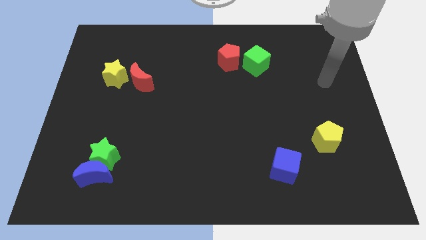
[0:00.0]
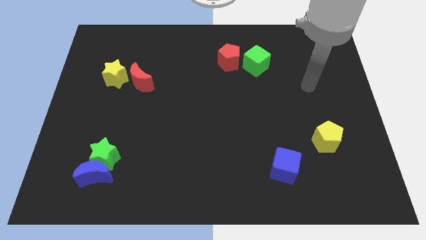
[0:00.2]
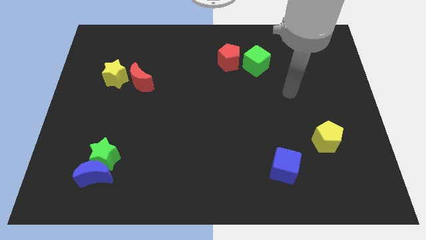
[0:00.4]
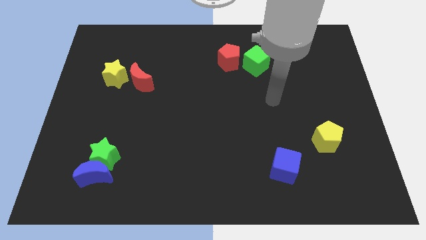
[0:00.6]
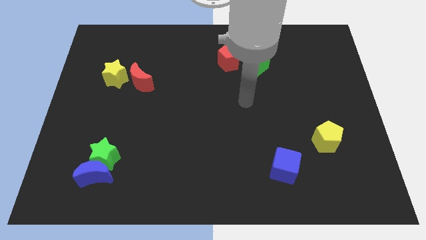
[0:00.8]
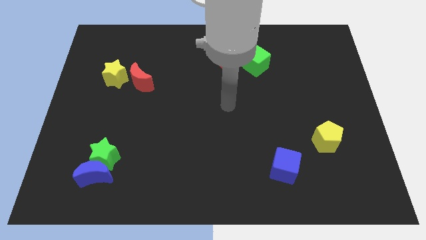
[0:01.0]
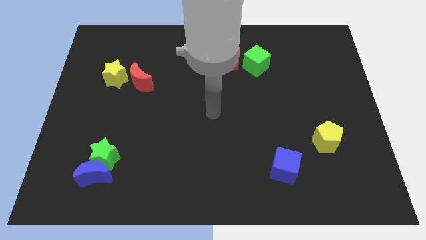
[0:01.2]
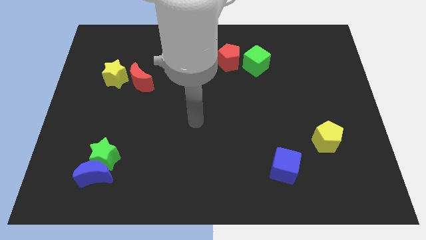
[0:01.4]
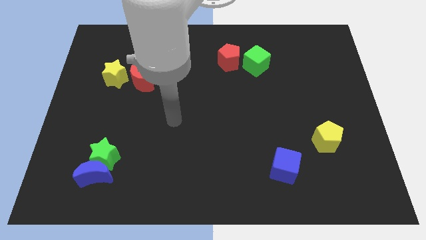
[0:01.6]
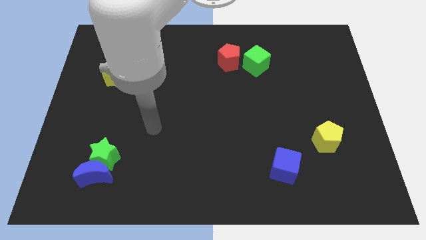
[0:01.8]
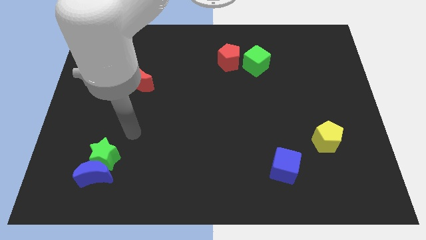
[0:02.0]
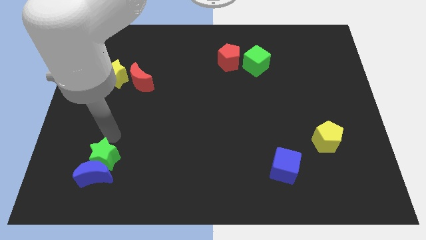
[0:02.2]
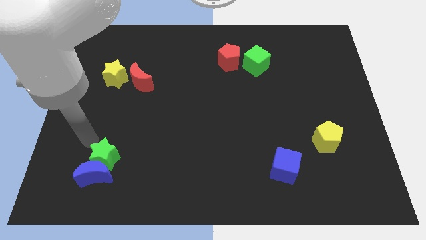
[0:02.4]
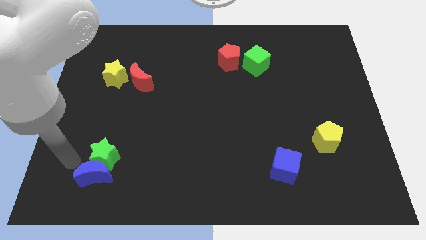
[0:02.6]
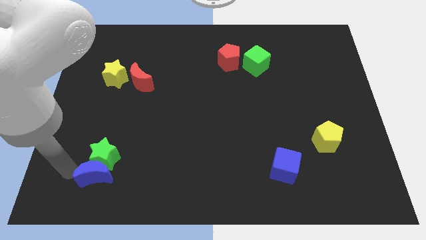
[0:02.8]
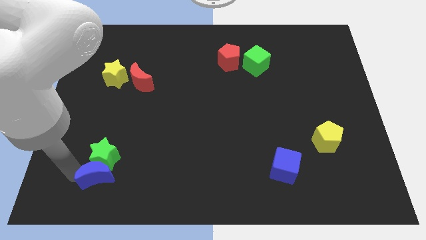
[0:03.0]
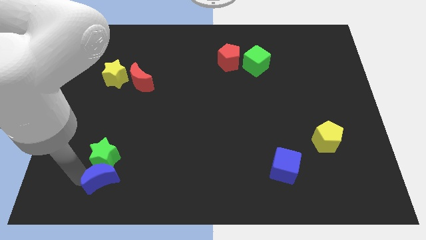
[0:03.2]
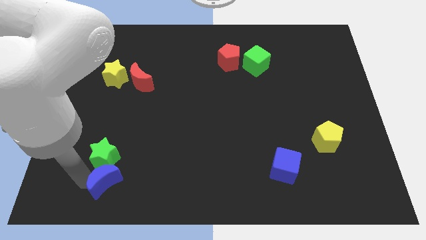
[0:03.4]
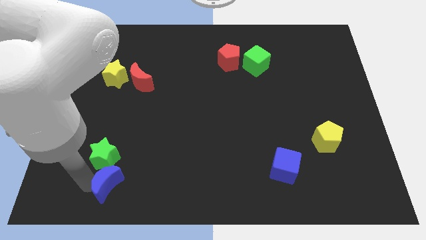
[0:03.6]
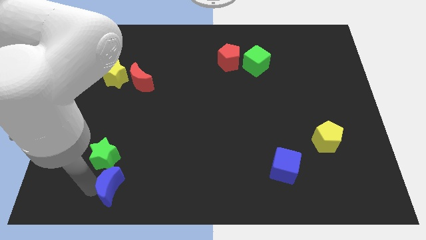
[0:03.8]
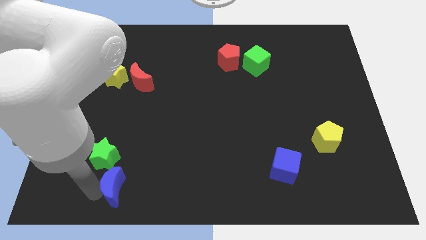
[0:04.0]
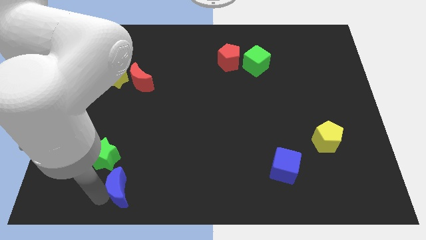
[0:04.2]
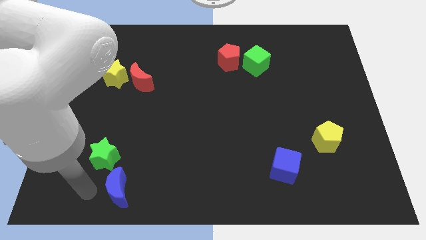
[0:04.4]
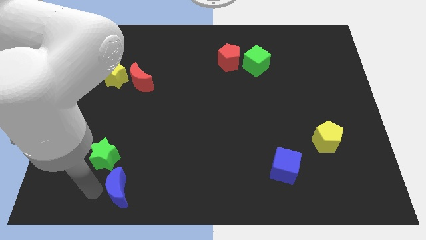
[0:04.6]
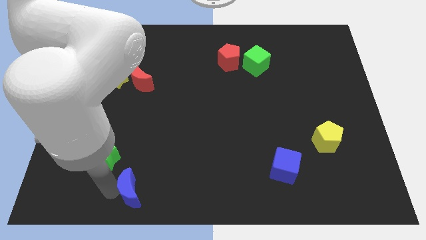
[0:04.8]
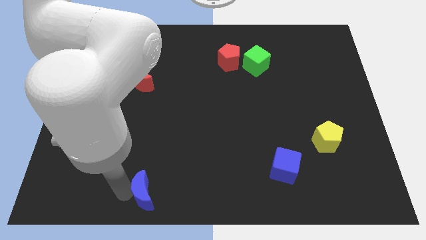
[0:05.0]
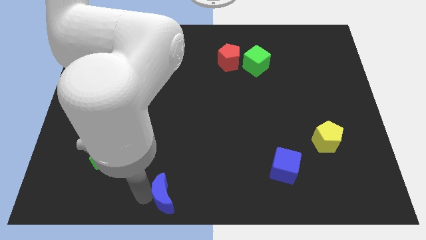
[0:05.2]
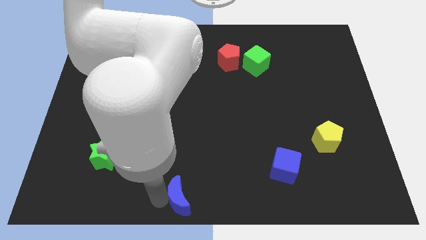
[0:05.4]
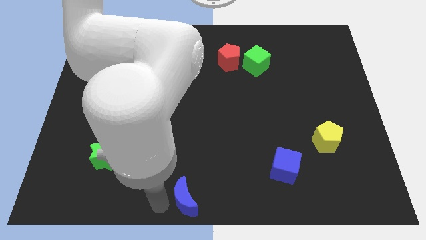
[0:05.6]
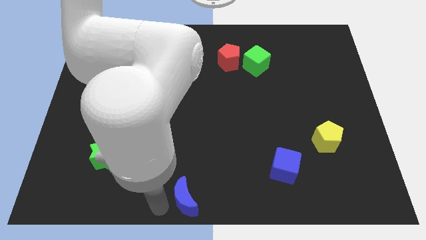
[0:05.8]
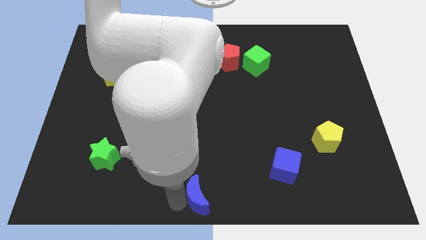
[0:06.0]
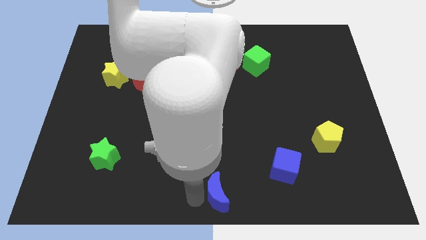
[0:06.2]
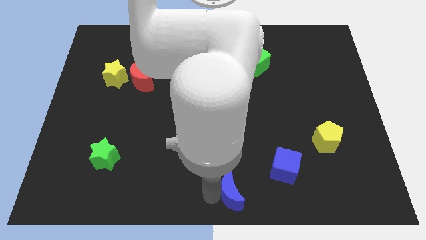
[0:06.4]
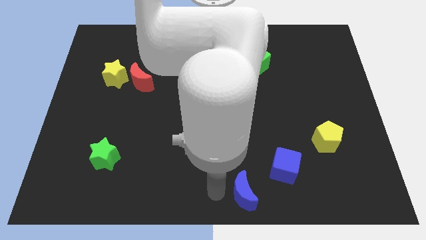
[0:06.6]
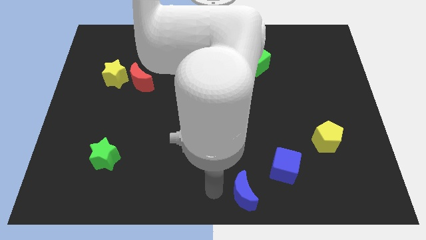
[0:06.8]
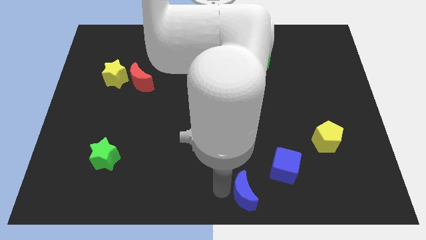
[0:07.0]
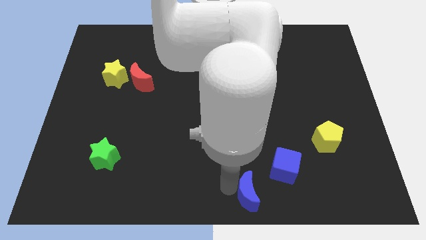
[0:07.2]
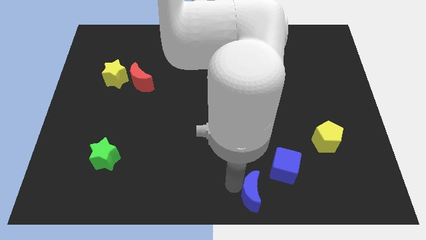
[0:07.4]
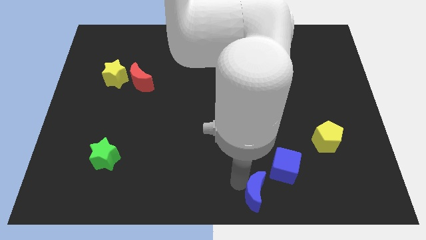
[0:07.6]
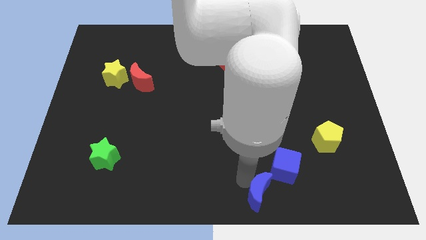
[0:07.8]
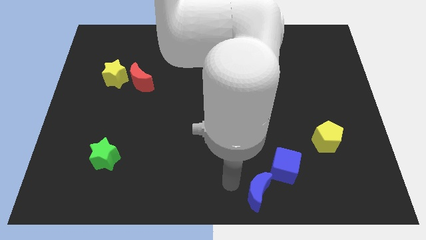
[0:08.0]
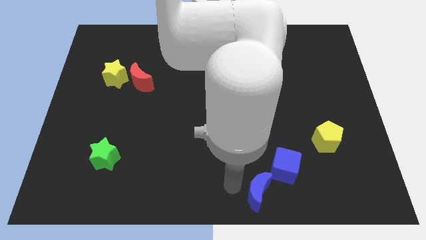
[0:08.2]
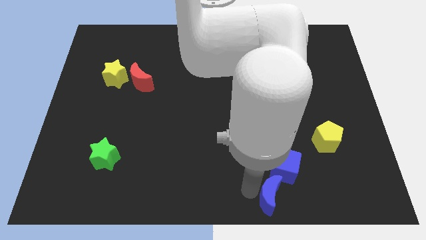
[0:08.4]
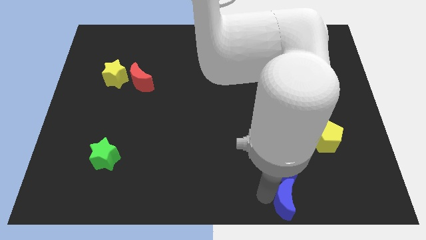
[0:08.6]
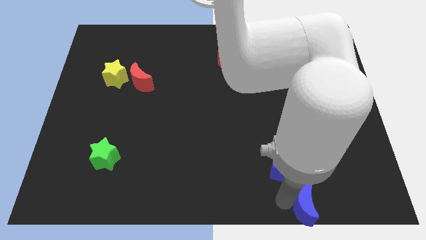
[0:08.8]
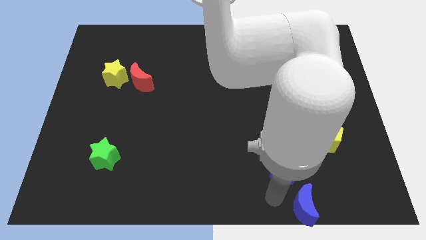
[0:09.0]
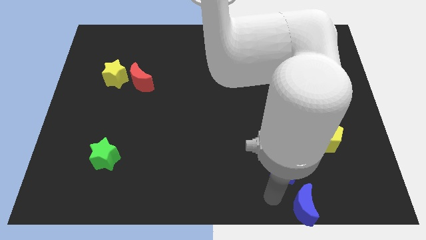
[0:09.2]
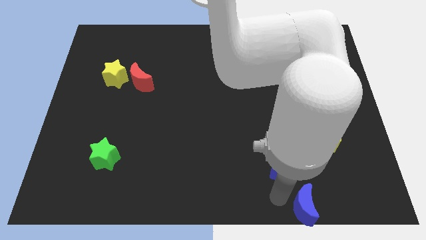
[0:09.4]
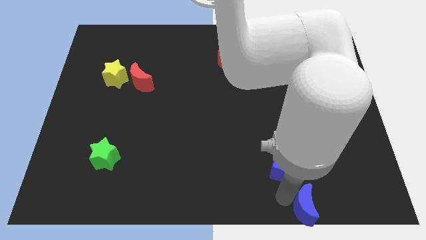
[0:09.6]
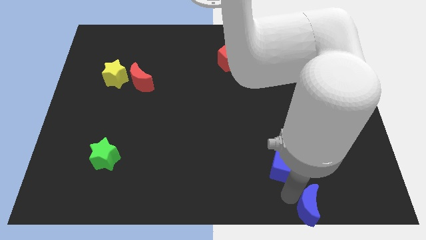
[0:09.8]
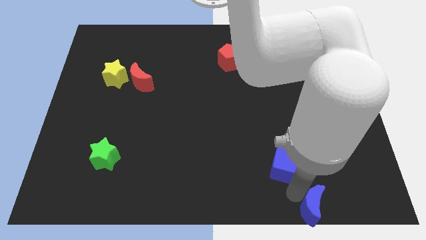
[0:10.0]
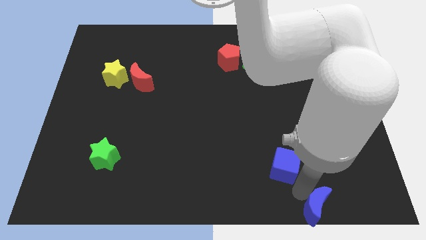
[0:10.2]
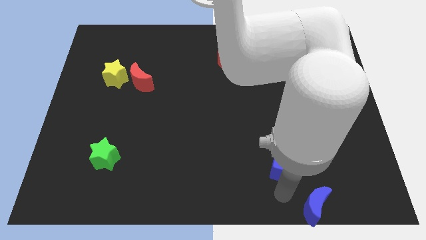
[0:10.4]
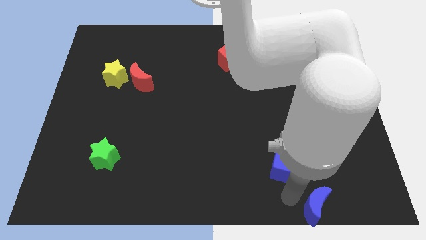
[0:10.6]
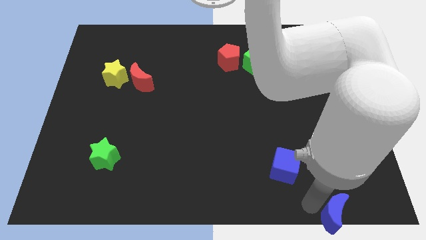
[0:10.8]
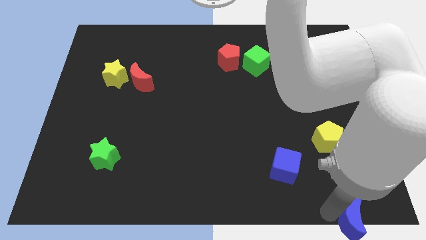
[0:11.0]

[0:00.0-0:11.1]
push the blue moon to the lower right corner

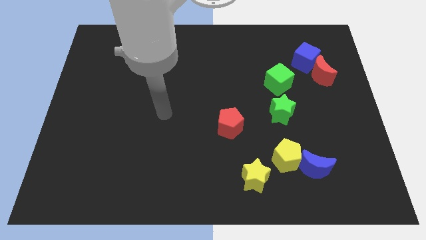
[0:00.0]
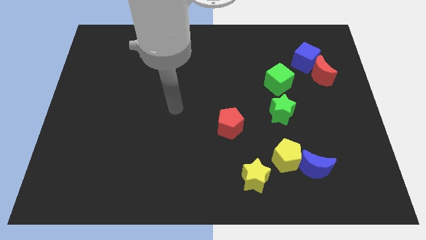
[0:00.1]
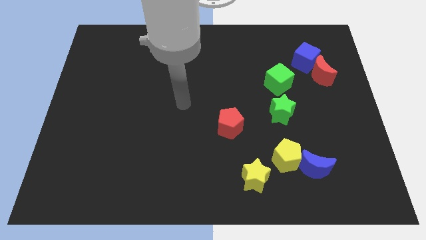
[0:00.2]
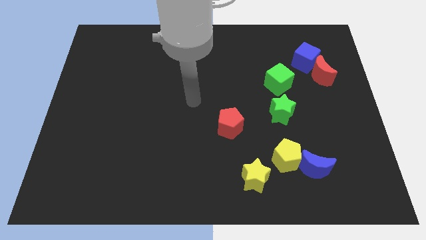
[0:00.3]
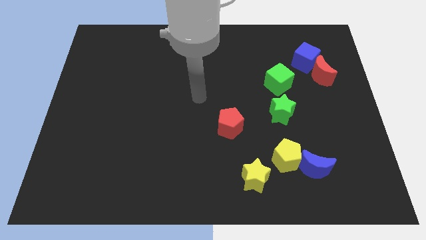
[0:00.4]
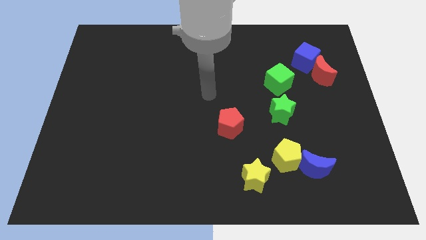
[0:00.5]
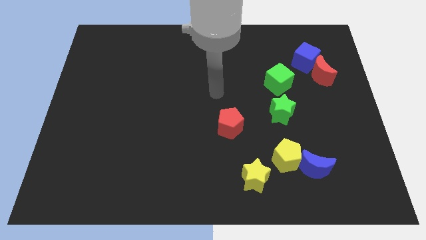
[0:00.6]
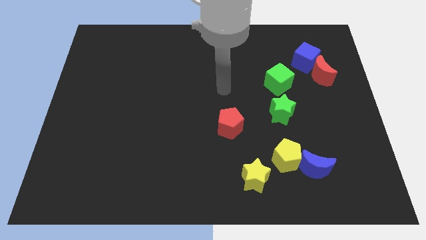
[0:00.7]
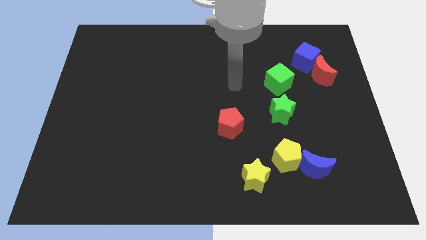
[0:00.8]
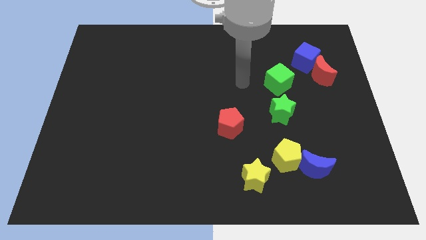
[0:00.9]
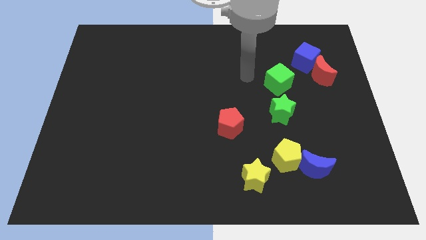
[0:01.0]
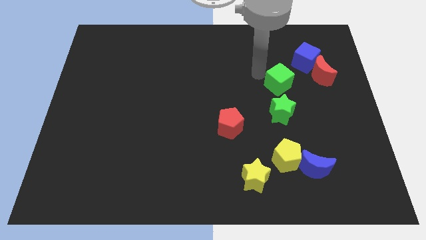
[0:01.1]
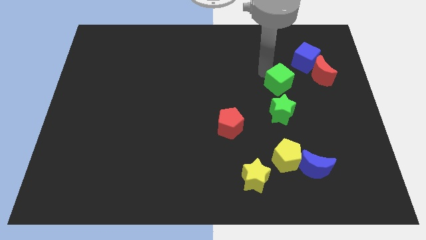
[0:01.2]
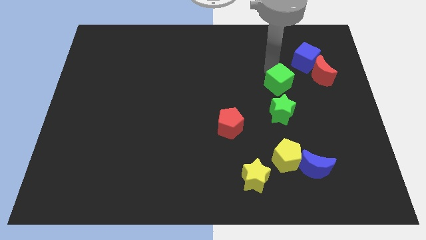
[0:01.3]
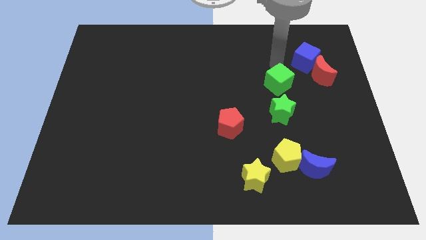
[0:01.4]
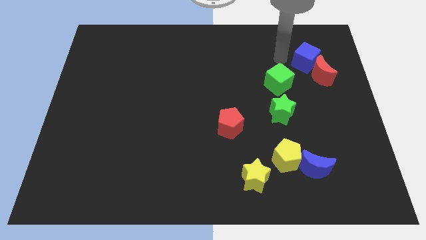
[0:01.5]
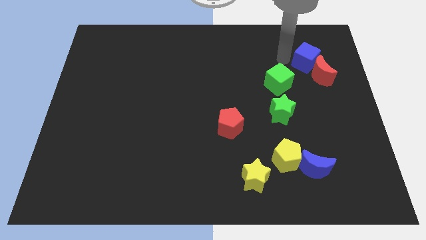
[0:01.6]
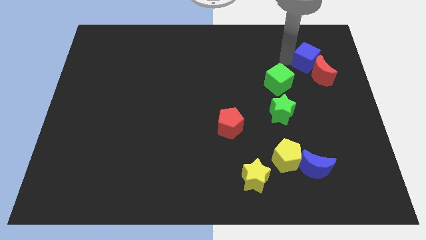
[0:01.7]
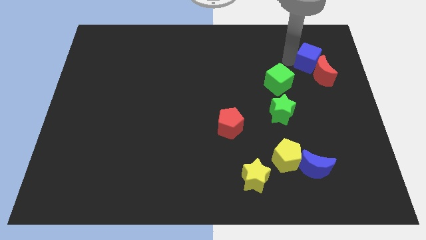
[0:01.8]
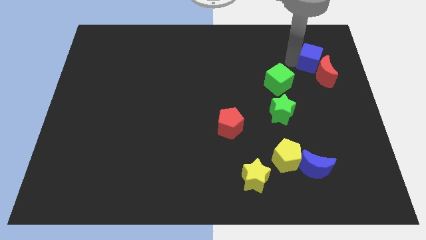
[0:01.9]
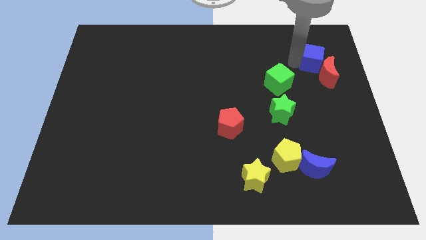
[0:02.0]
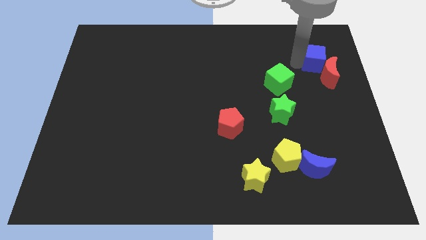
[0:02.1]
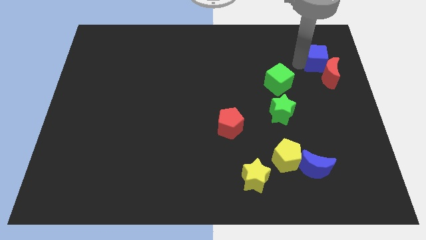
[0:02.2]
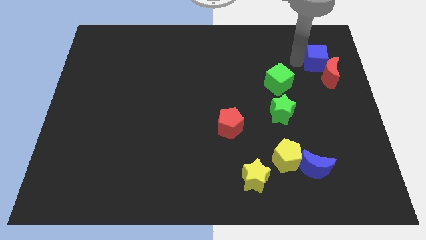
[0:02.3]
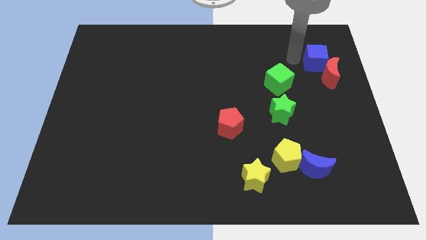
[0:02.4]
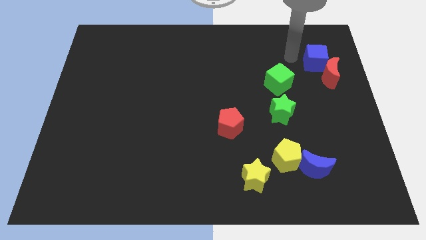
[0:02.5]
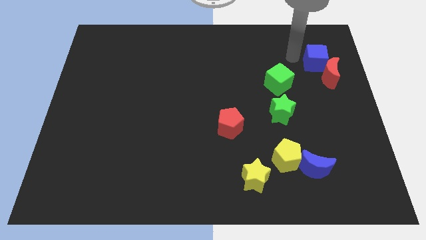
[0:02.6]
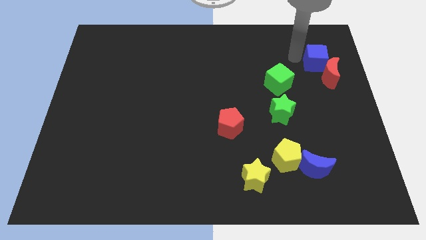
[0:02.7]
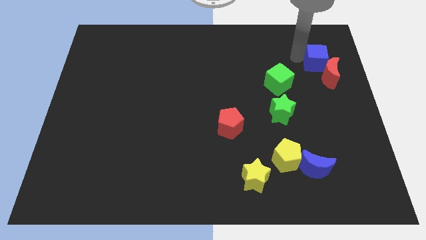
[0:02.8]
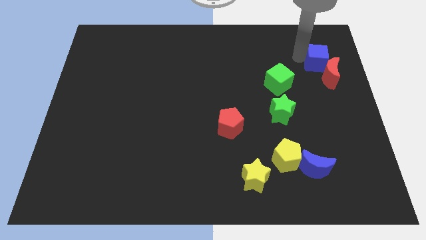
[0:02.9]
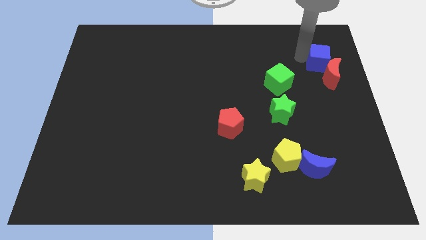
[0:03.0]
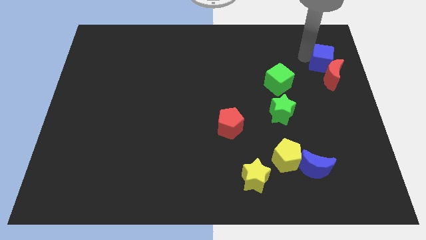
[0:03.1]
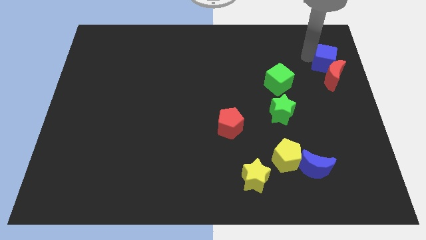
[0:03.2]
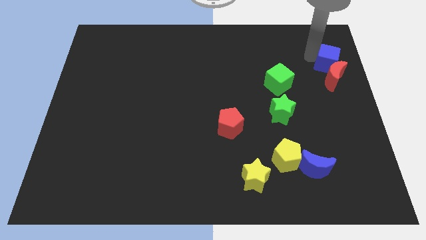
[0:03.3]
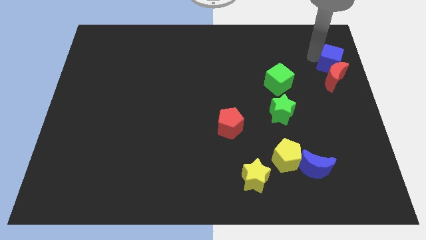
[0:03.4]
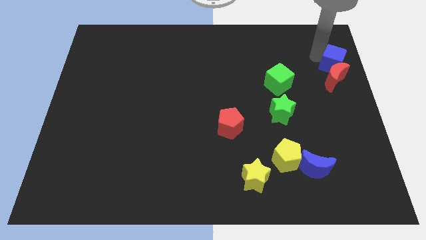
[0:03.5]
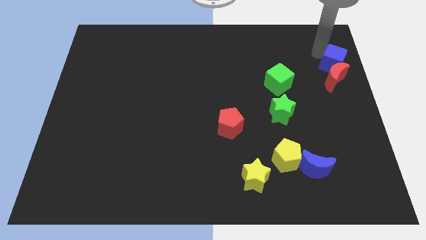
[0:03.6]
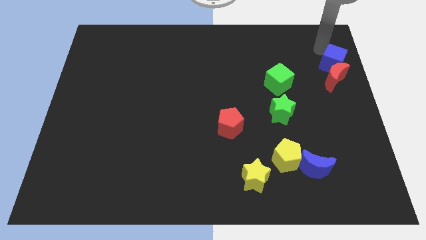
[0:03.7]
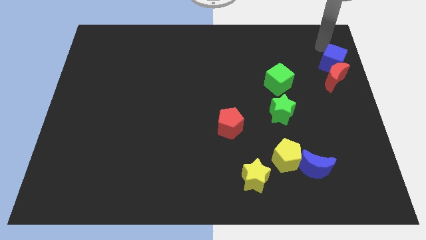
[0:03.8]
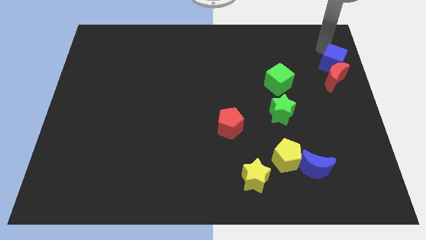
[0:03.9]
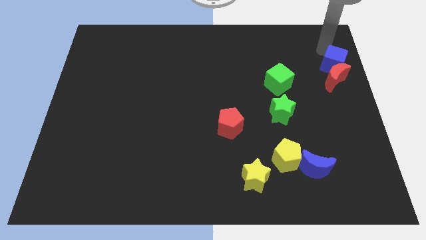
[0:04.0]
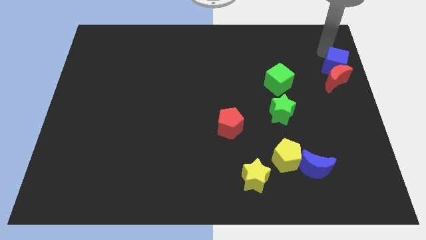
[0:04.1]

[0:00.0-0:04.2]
move the blue cube to the center right
